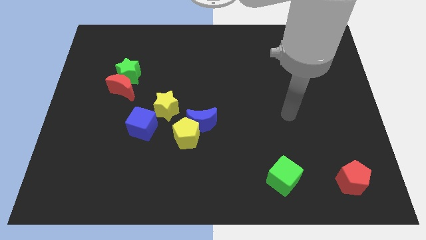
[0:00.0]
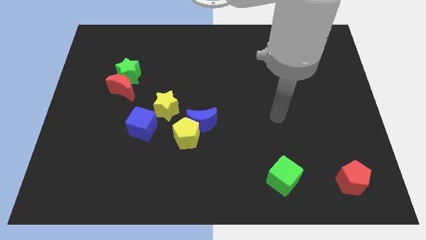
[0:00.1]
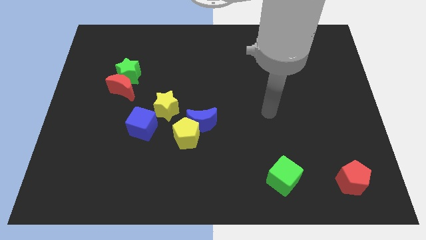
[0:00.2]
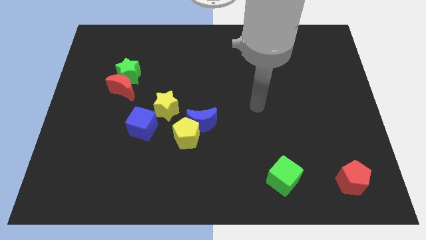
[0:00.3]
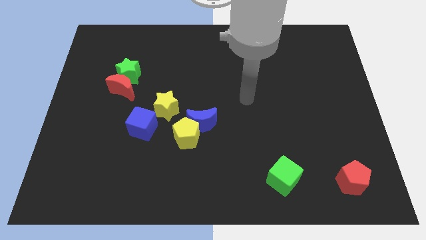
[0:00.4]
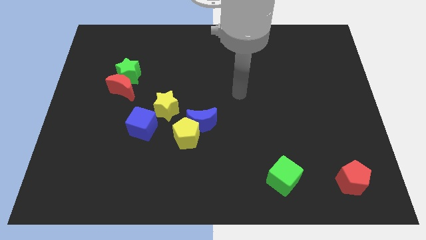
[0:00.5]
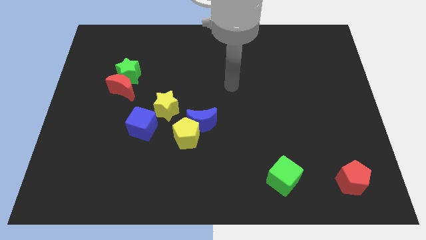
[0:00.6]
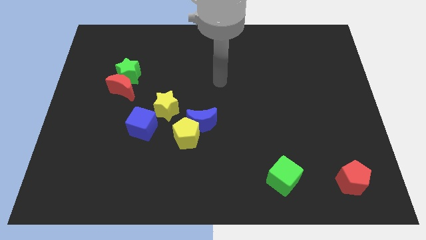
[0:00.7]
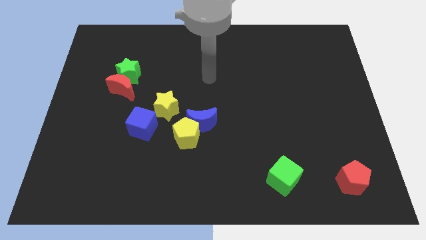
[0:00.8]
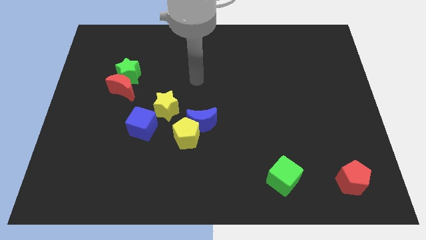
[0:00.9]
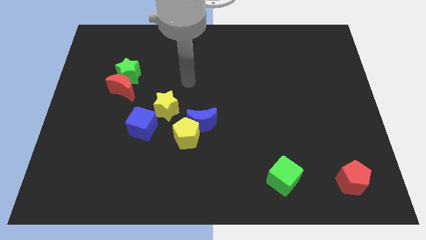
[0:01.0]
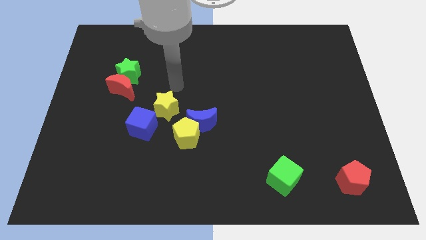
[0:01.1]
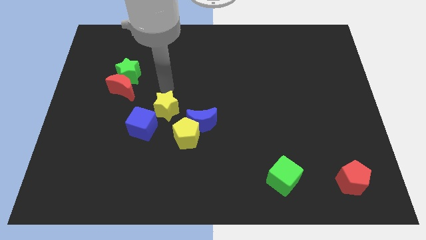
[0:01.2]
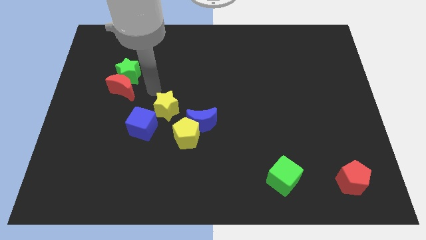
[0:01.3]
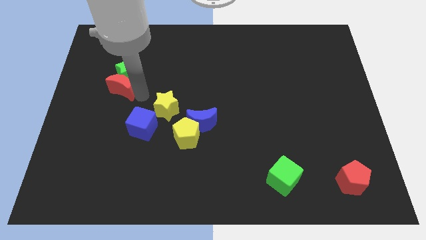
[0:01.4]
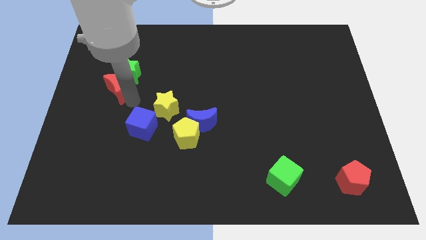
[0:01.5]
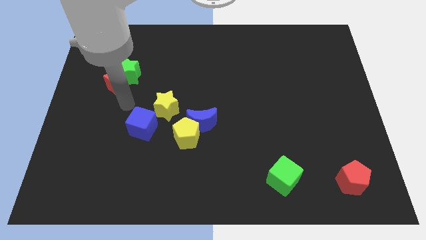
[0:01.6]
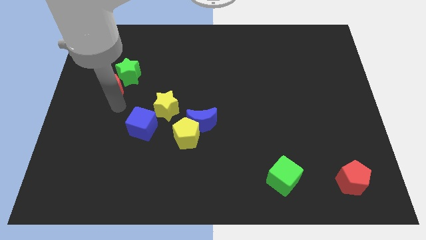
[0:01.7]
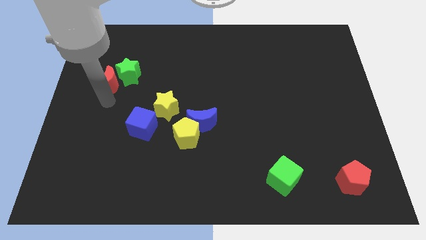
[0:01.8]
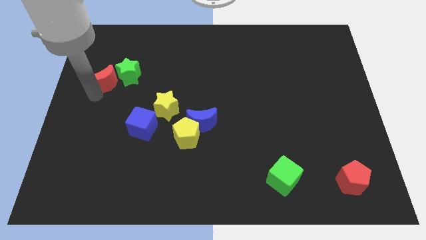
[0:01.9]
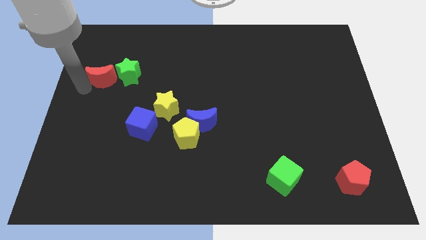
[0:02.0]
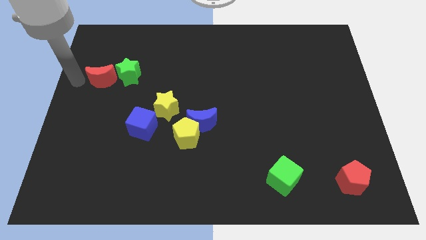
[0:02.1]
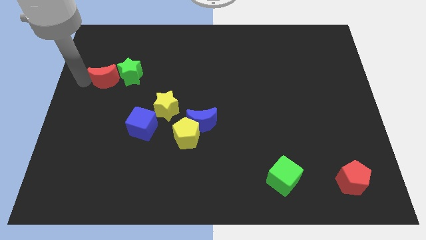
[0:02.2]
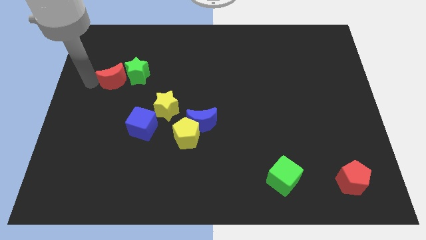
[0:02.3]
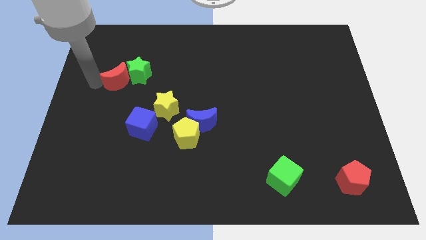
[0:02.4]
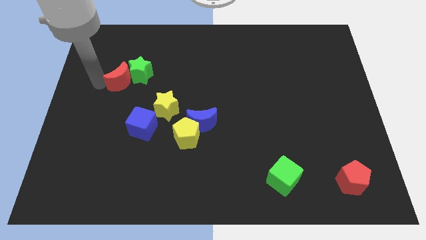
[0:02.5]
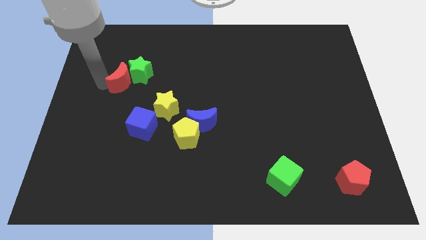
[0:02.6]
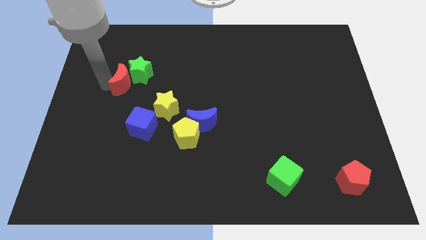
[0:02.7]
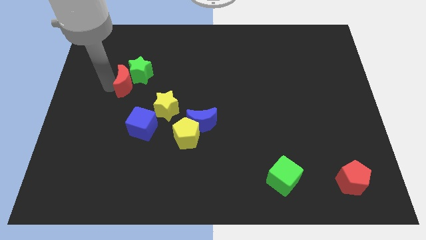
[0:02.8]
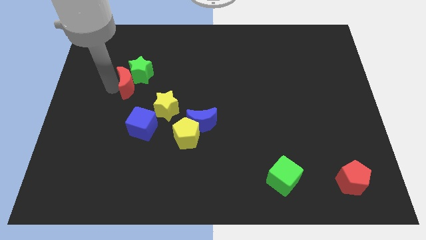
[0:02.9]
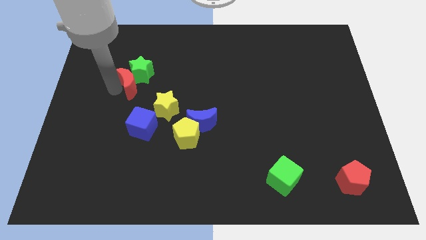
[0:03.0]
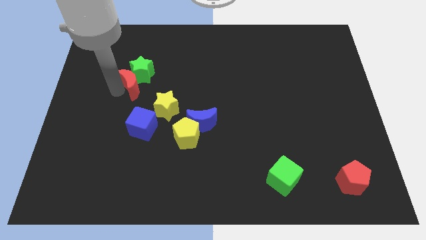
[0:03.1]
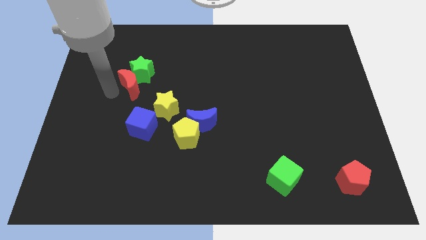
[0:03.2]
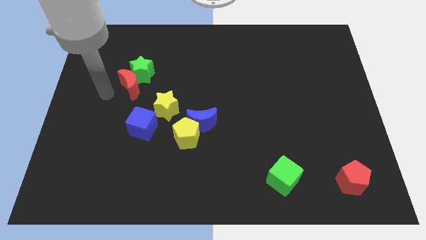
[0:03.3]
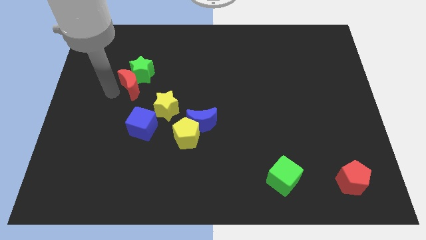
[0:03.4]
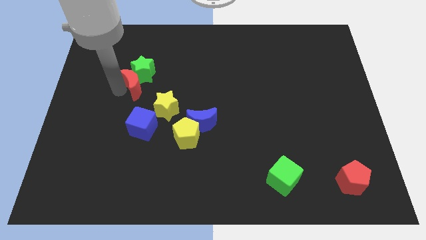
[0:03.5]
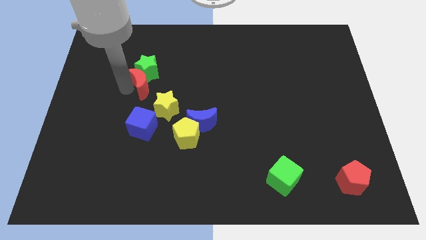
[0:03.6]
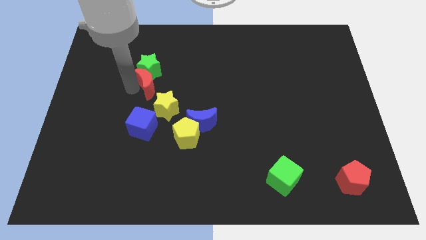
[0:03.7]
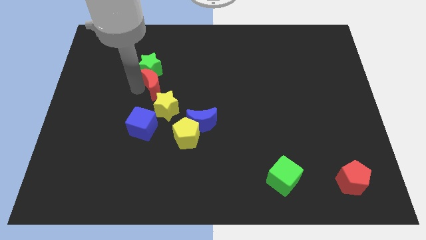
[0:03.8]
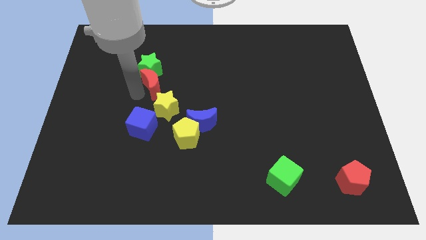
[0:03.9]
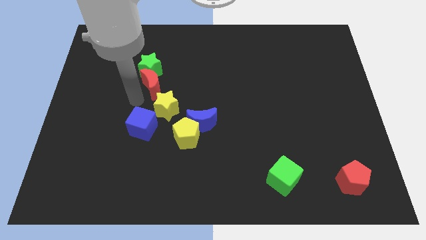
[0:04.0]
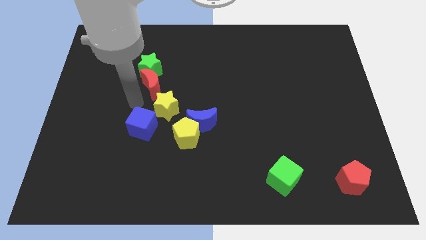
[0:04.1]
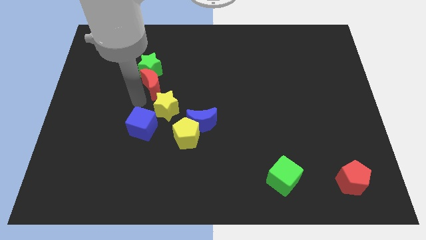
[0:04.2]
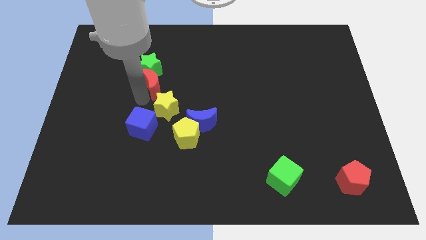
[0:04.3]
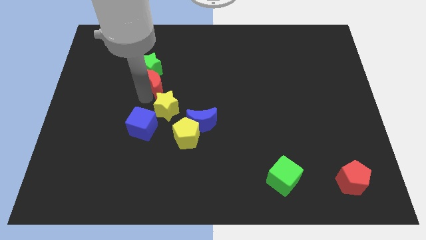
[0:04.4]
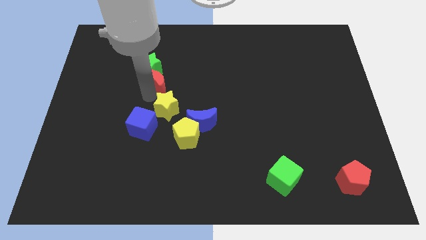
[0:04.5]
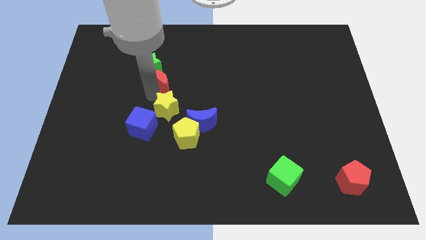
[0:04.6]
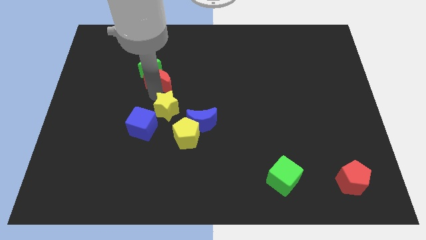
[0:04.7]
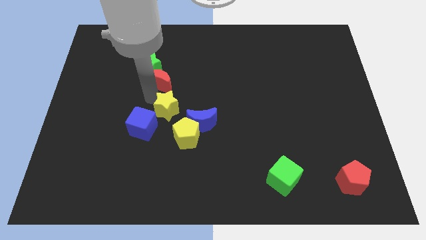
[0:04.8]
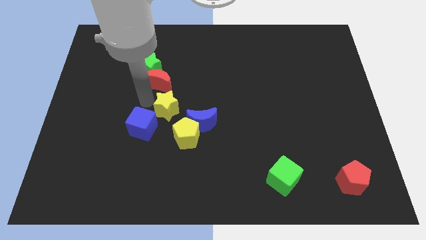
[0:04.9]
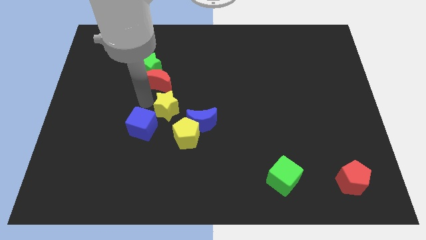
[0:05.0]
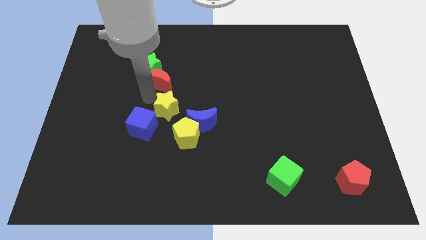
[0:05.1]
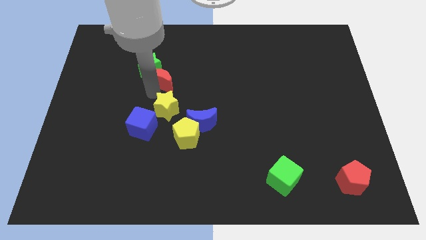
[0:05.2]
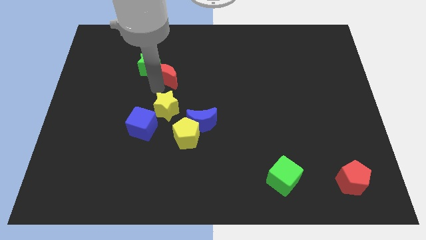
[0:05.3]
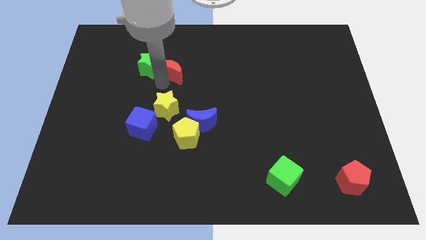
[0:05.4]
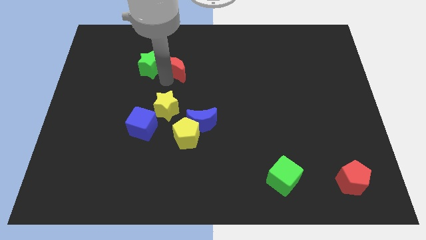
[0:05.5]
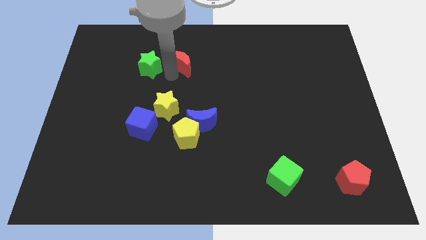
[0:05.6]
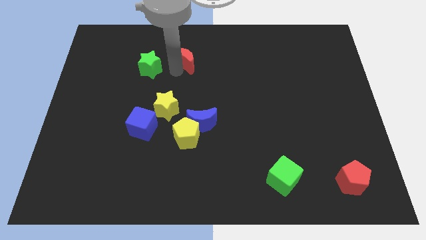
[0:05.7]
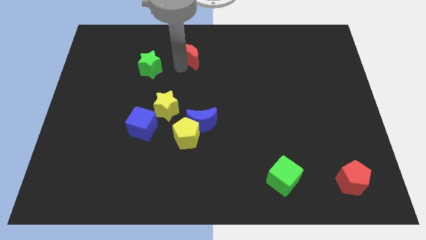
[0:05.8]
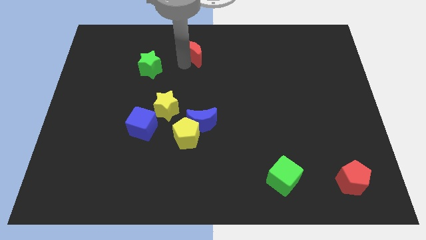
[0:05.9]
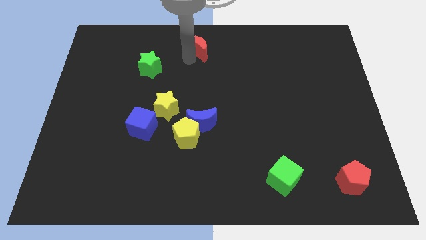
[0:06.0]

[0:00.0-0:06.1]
push the red moon to the top side
